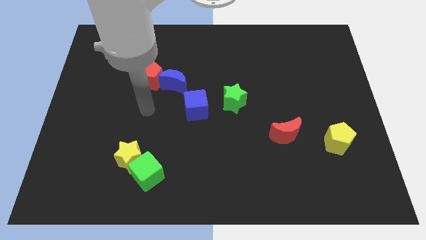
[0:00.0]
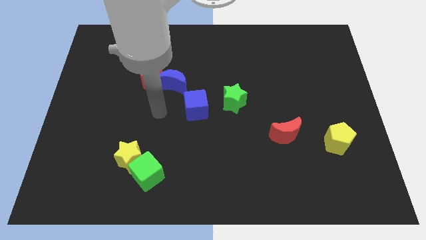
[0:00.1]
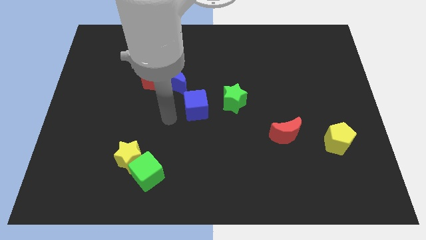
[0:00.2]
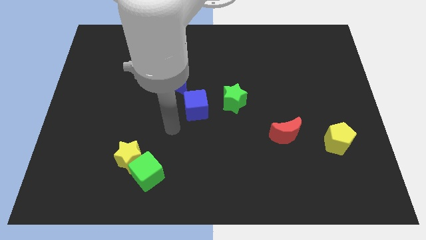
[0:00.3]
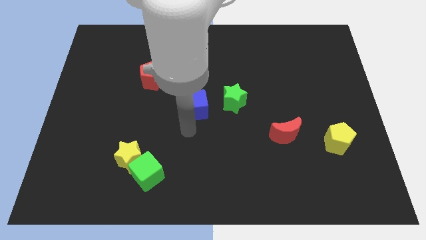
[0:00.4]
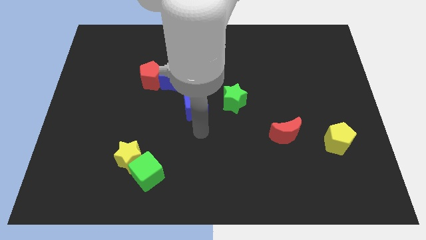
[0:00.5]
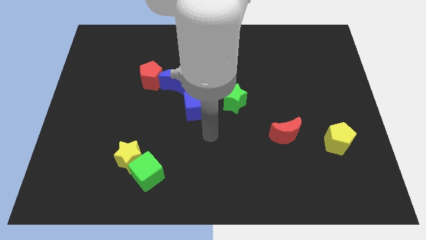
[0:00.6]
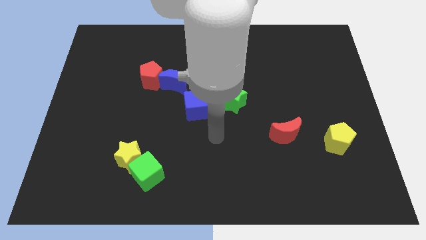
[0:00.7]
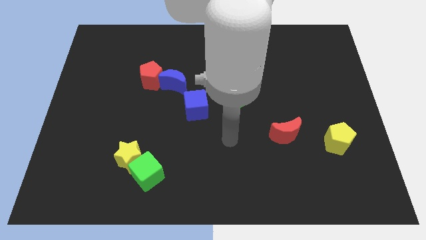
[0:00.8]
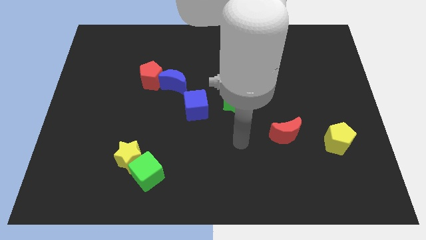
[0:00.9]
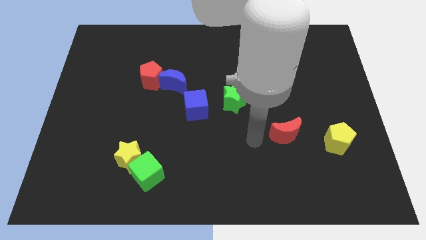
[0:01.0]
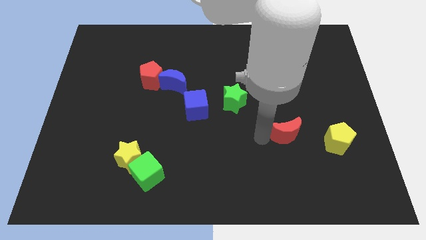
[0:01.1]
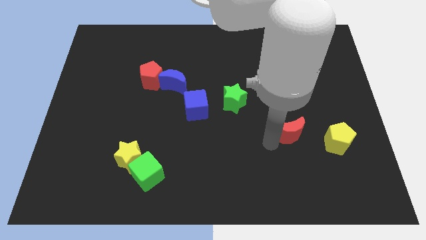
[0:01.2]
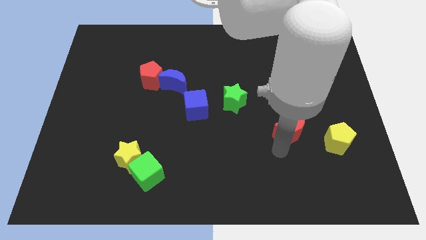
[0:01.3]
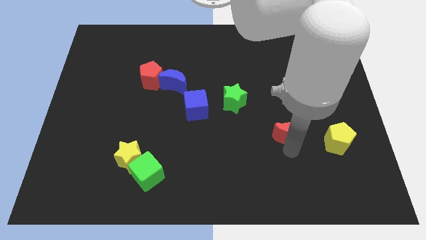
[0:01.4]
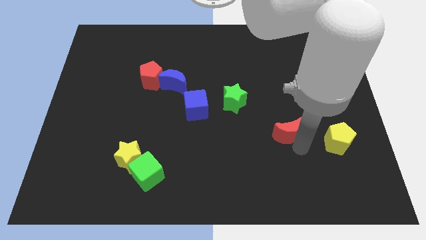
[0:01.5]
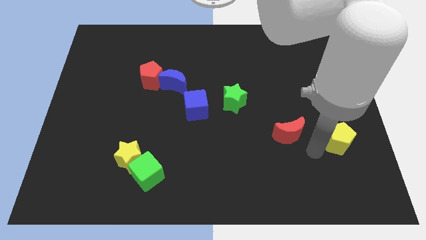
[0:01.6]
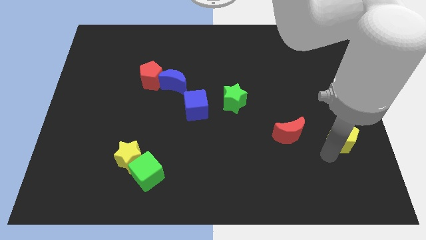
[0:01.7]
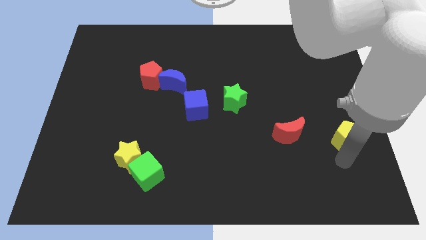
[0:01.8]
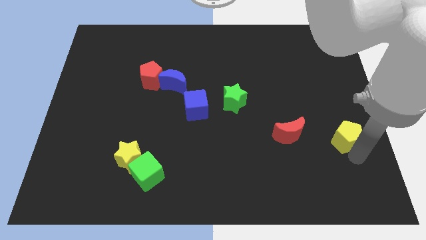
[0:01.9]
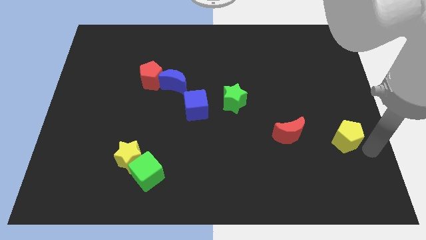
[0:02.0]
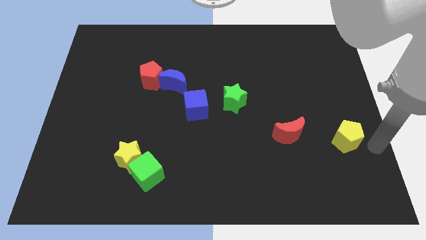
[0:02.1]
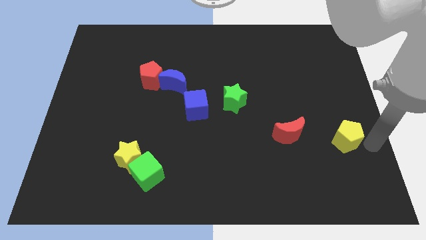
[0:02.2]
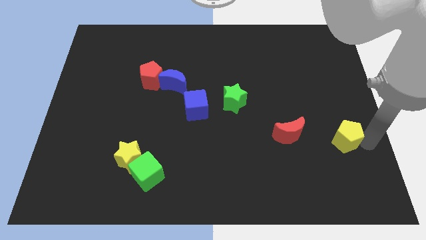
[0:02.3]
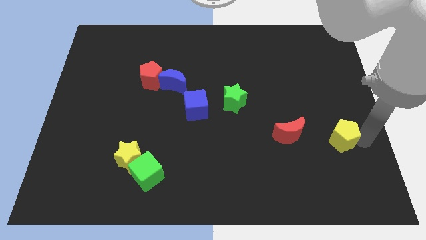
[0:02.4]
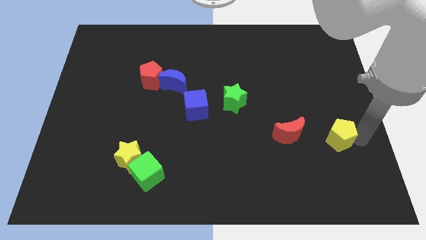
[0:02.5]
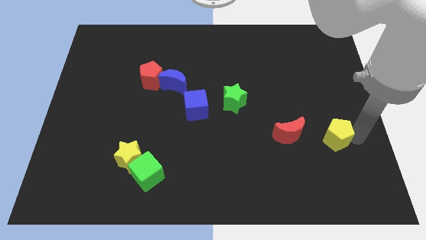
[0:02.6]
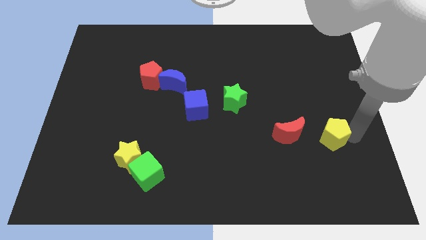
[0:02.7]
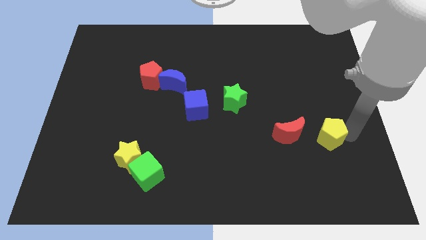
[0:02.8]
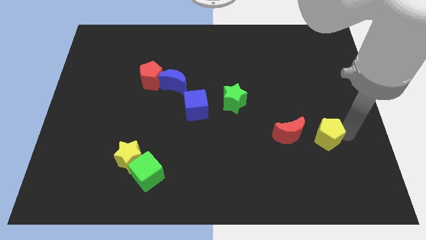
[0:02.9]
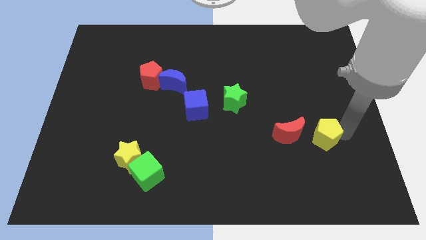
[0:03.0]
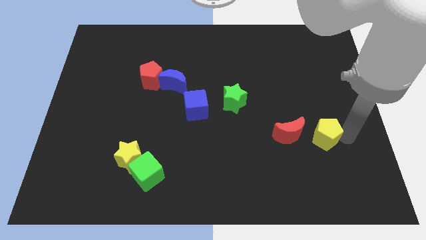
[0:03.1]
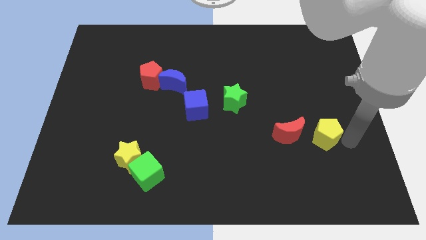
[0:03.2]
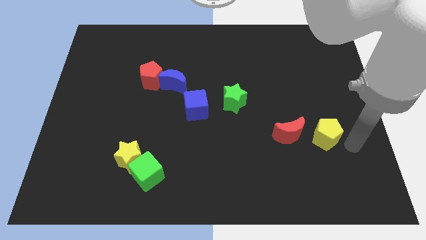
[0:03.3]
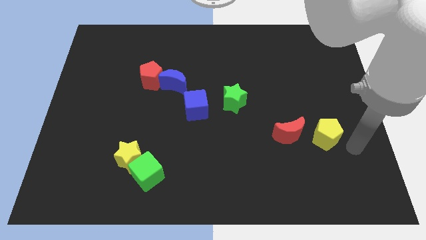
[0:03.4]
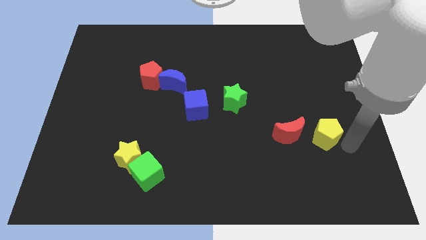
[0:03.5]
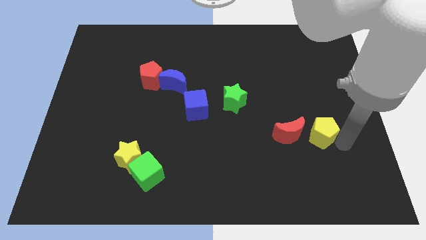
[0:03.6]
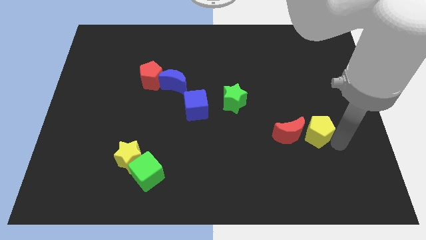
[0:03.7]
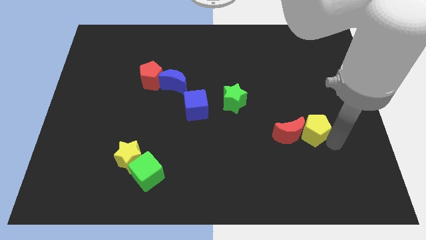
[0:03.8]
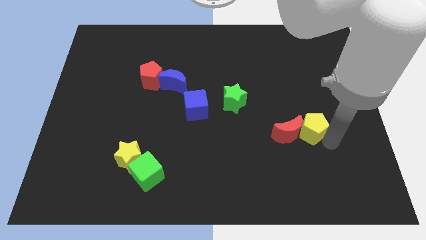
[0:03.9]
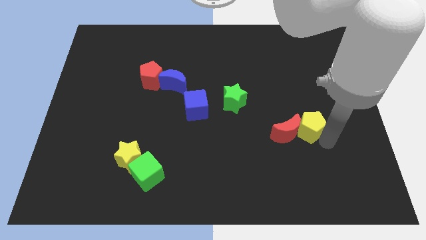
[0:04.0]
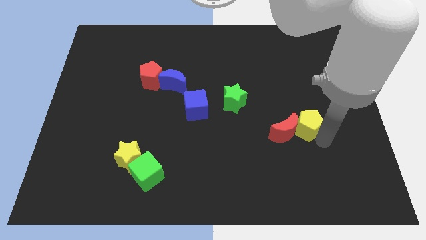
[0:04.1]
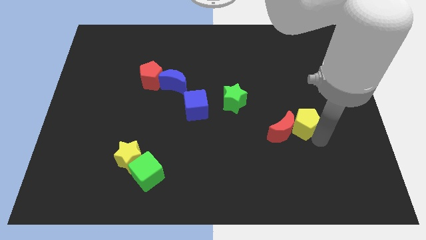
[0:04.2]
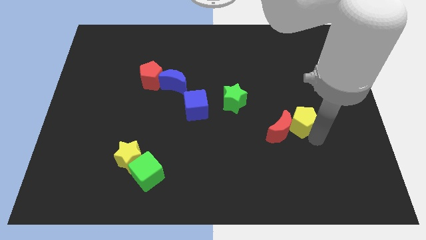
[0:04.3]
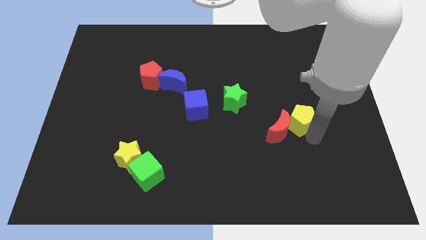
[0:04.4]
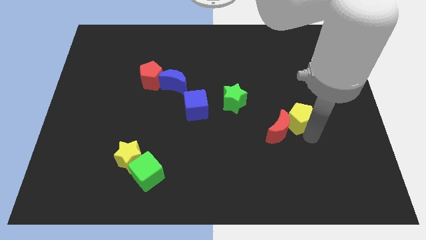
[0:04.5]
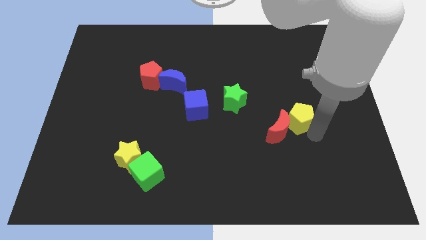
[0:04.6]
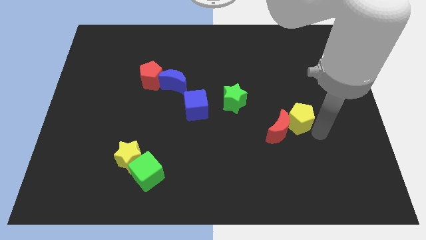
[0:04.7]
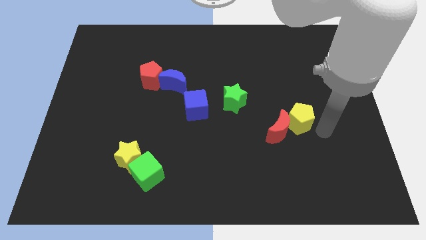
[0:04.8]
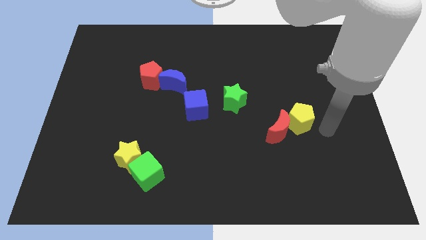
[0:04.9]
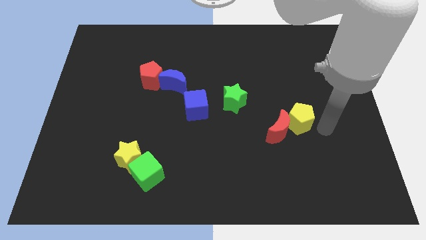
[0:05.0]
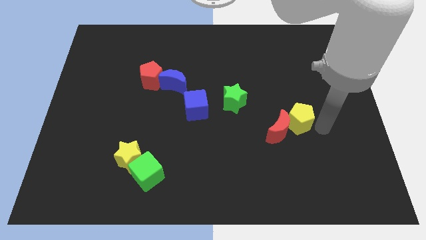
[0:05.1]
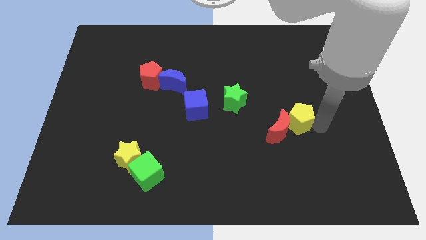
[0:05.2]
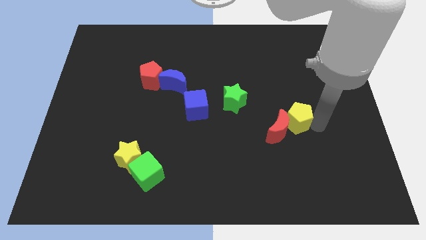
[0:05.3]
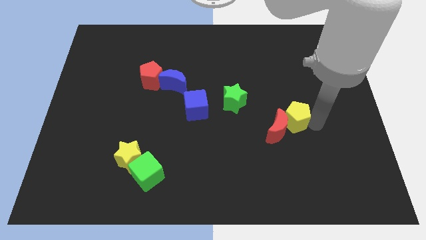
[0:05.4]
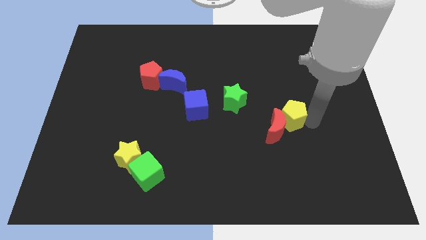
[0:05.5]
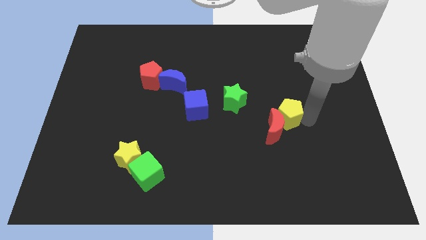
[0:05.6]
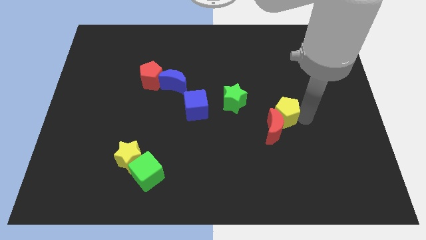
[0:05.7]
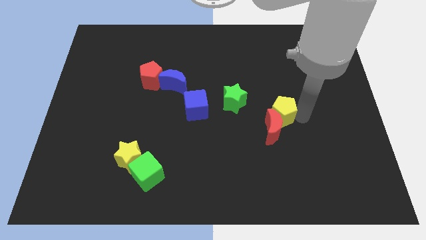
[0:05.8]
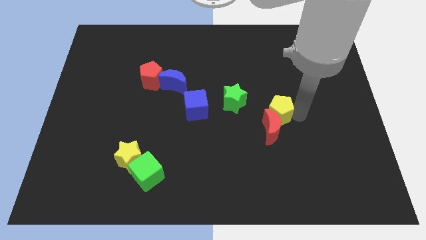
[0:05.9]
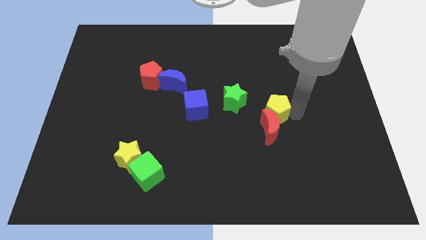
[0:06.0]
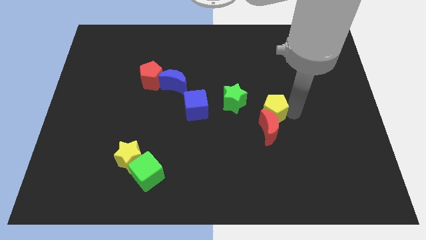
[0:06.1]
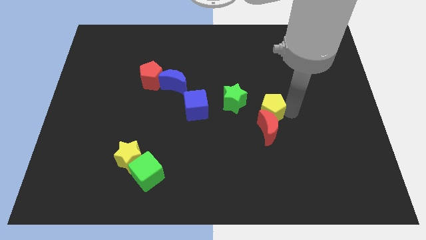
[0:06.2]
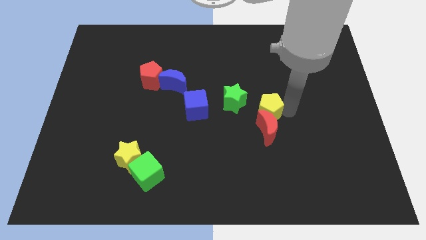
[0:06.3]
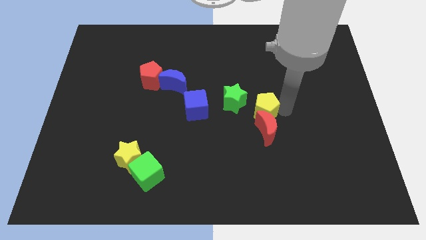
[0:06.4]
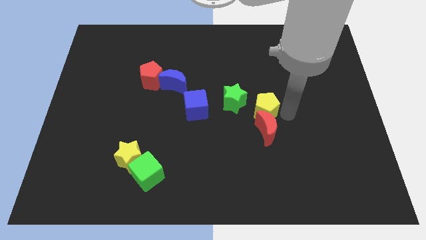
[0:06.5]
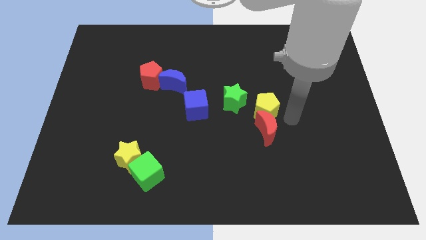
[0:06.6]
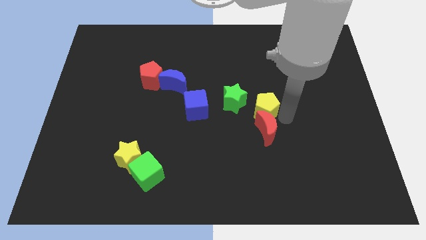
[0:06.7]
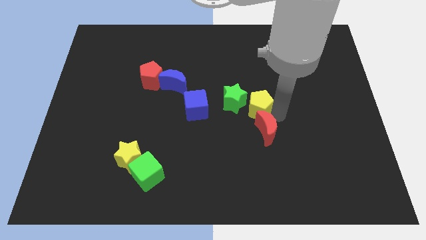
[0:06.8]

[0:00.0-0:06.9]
put the yellow pentagon to the green star
